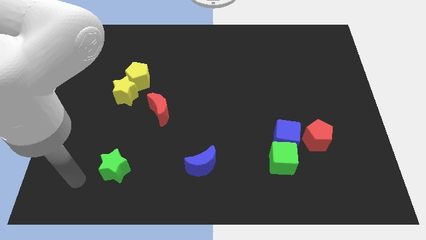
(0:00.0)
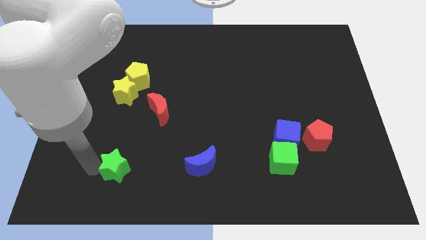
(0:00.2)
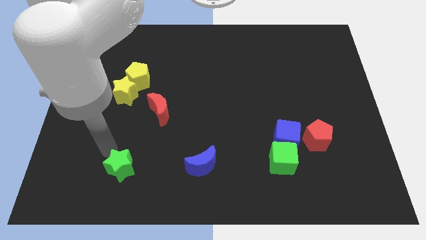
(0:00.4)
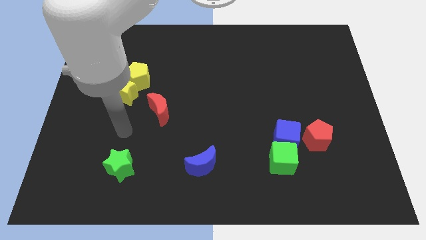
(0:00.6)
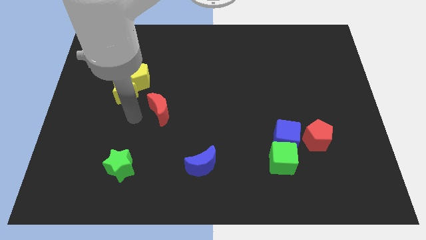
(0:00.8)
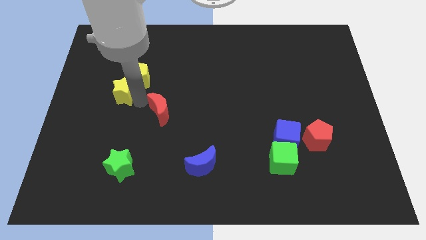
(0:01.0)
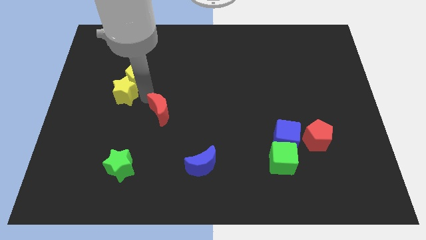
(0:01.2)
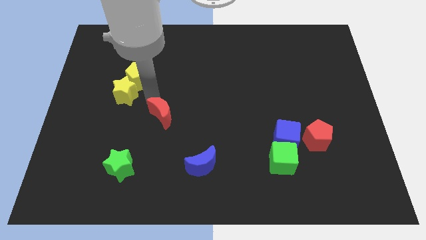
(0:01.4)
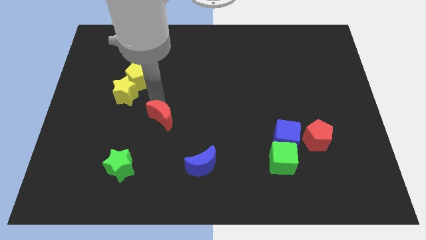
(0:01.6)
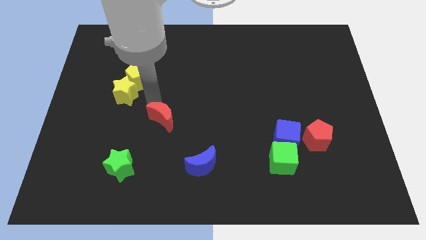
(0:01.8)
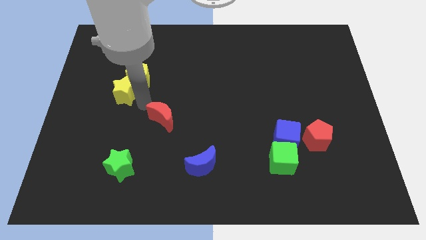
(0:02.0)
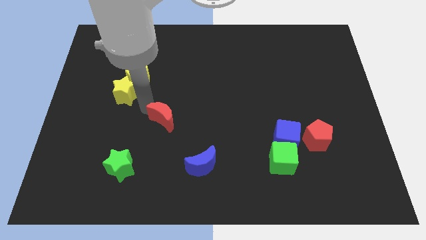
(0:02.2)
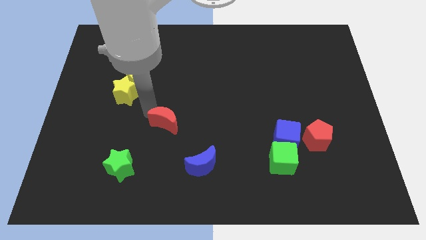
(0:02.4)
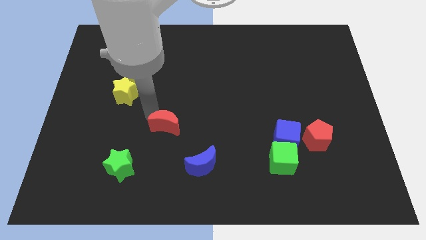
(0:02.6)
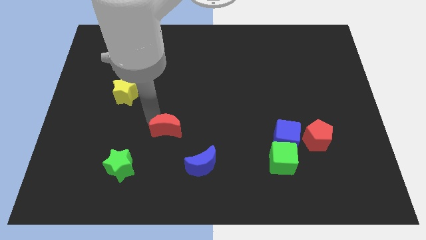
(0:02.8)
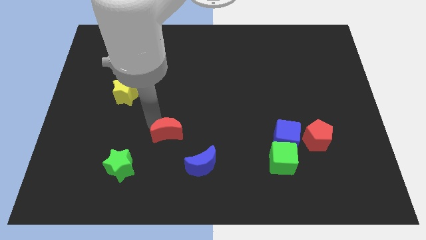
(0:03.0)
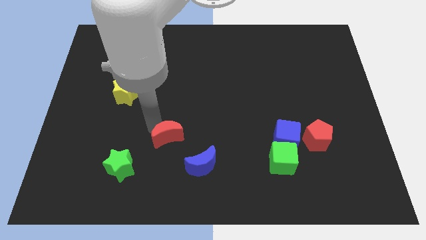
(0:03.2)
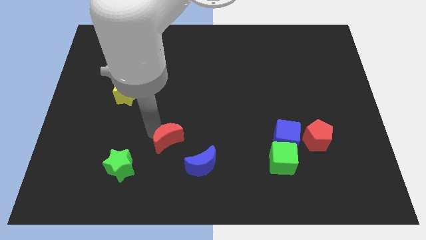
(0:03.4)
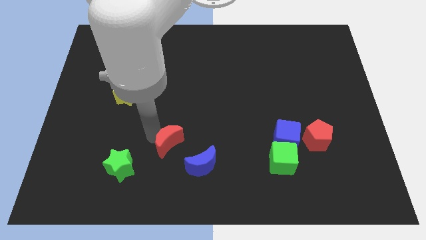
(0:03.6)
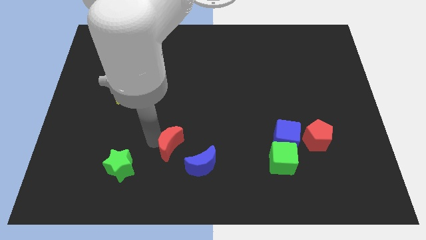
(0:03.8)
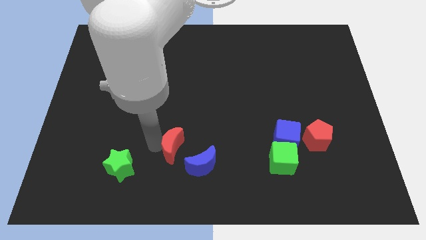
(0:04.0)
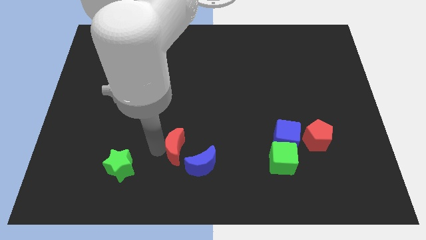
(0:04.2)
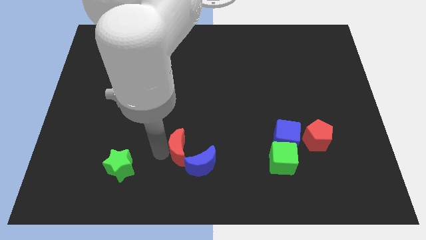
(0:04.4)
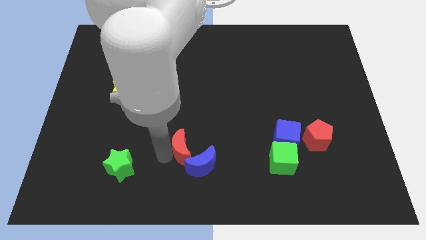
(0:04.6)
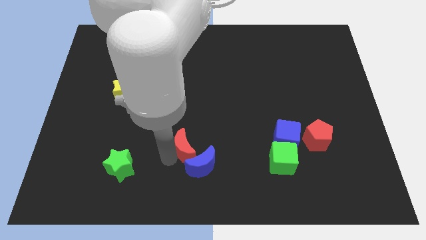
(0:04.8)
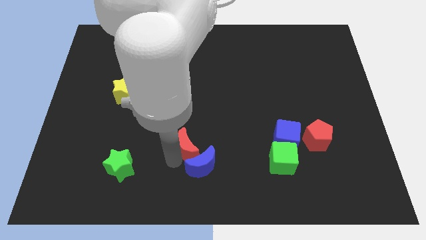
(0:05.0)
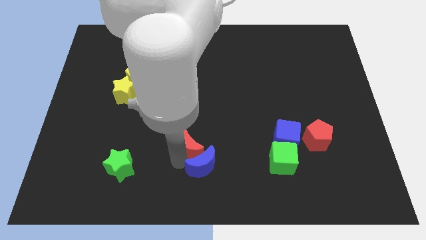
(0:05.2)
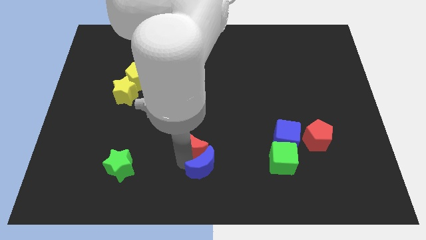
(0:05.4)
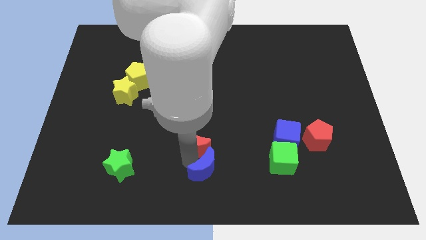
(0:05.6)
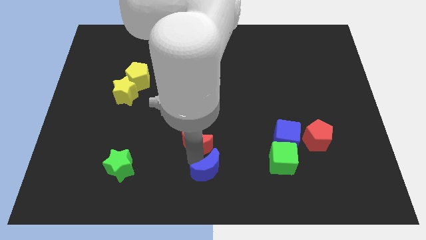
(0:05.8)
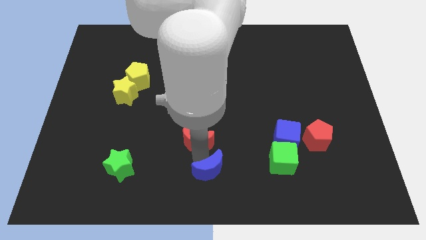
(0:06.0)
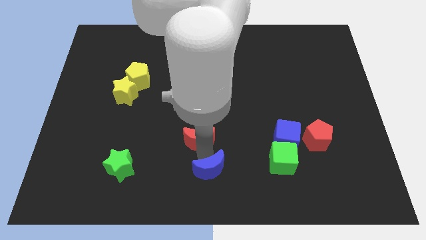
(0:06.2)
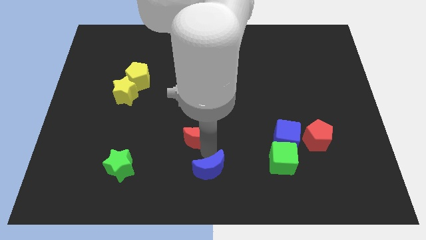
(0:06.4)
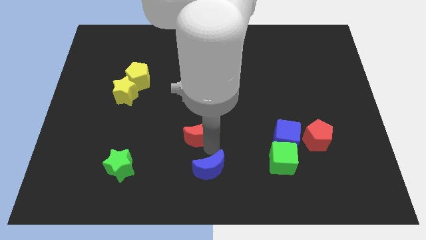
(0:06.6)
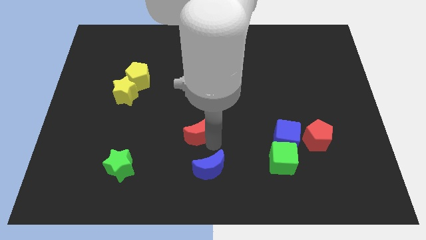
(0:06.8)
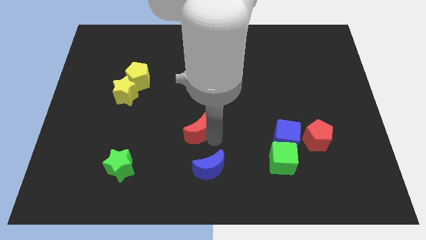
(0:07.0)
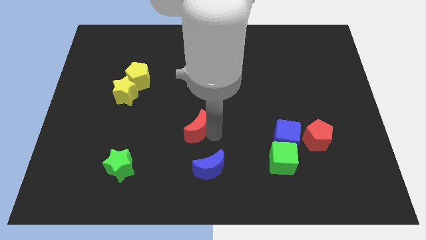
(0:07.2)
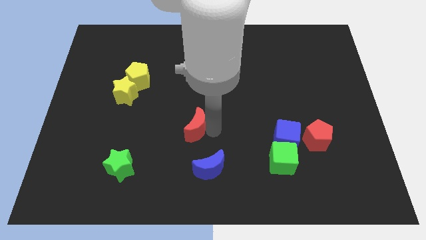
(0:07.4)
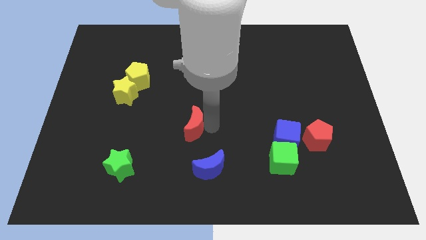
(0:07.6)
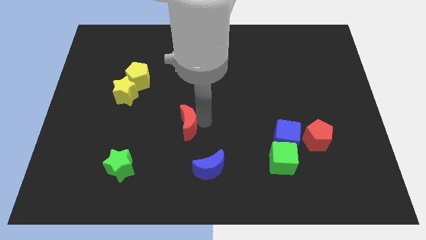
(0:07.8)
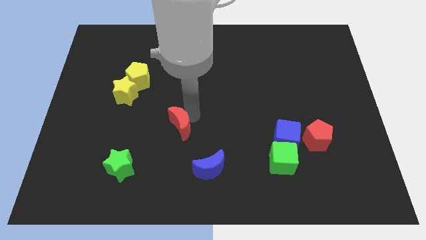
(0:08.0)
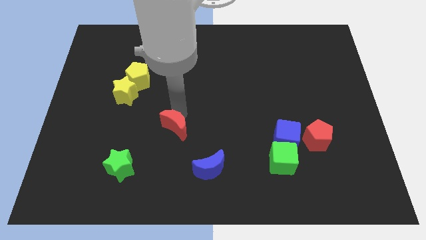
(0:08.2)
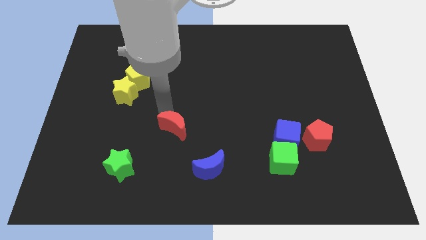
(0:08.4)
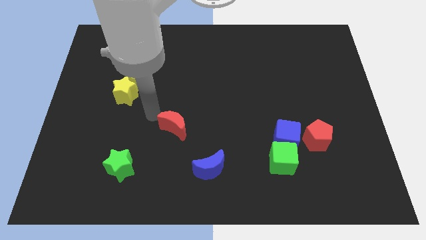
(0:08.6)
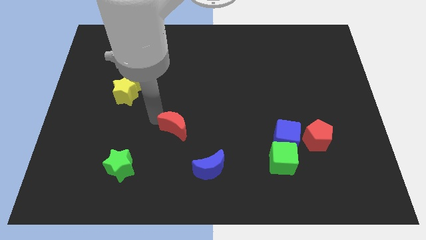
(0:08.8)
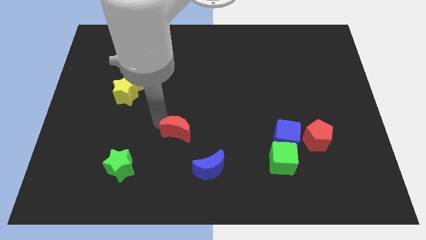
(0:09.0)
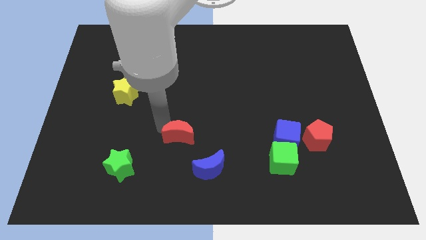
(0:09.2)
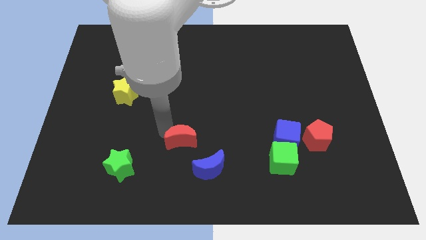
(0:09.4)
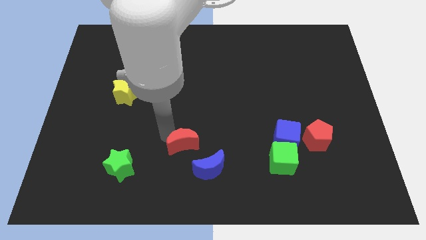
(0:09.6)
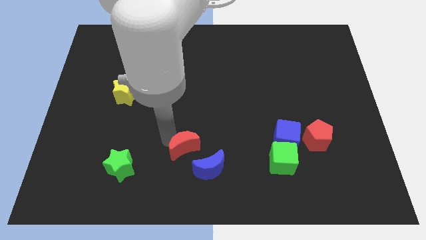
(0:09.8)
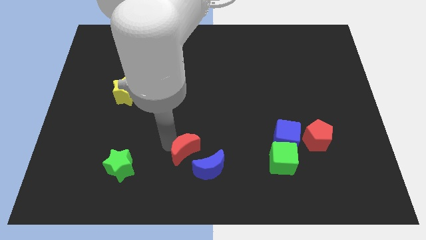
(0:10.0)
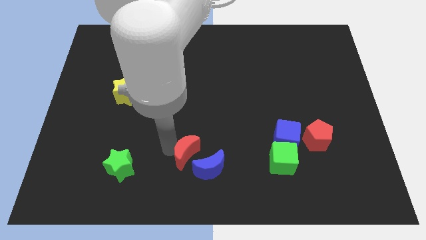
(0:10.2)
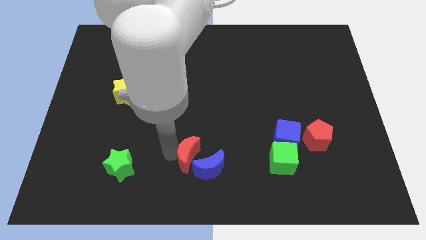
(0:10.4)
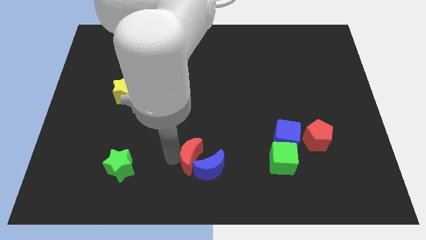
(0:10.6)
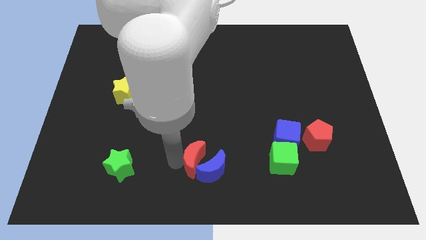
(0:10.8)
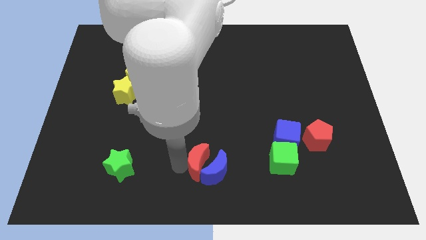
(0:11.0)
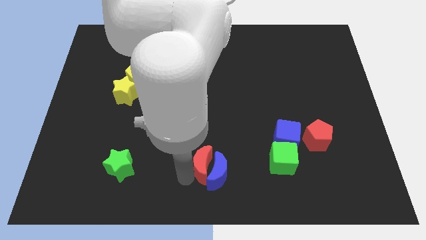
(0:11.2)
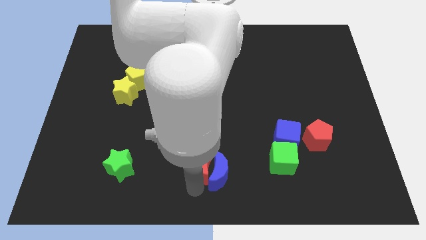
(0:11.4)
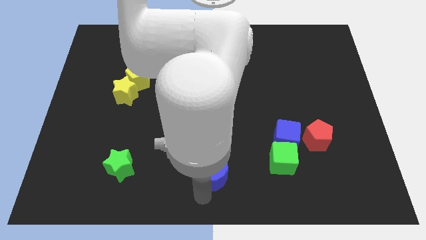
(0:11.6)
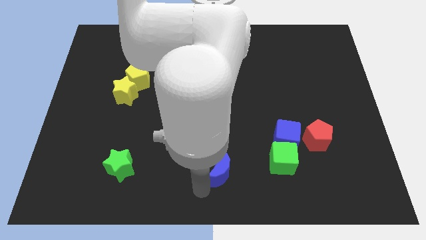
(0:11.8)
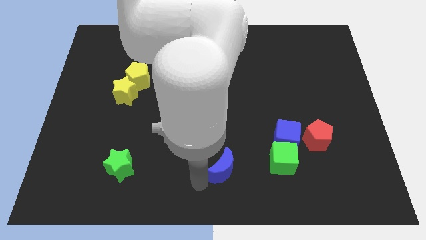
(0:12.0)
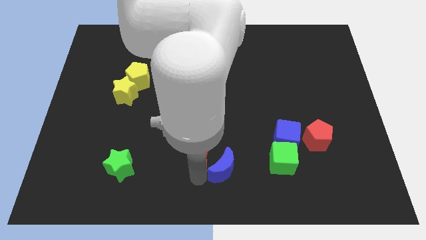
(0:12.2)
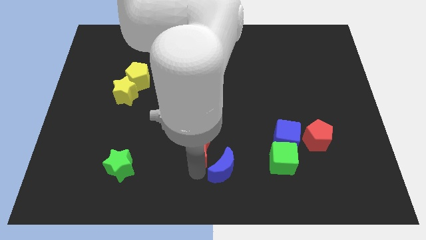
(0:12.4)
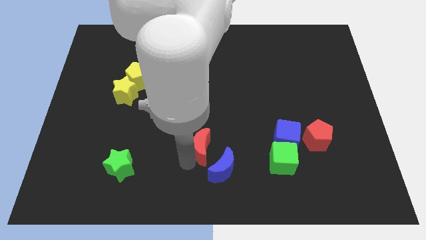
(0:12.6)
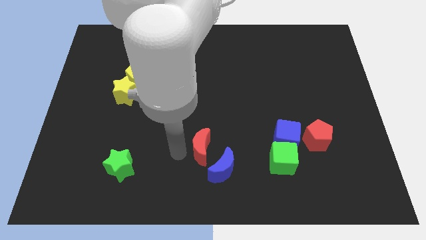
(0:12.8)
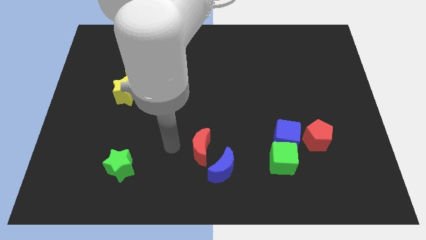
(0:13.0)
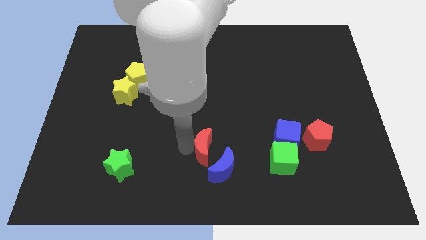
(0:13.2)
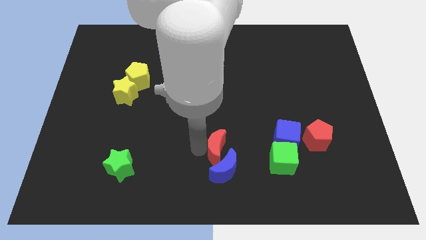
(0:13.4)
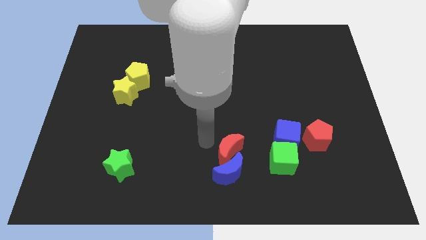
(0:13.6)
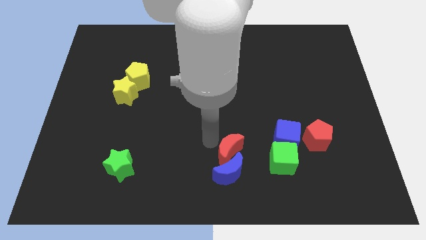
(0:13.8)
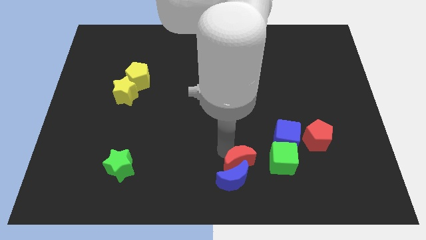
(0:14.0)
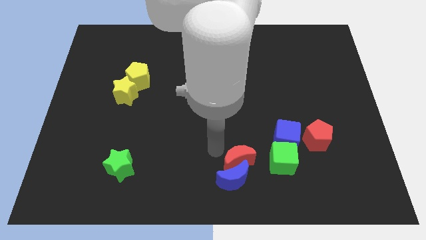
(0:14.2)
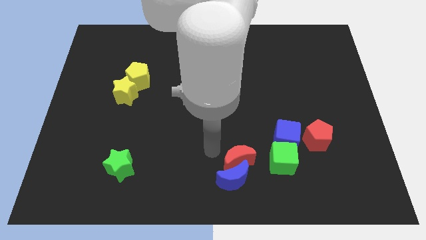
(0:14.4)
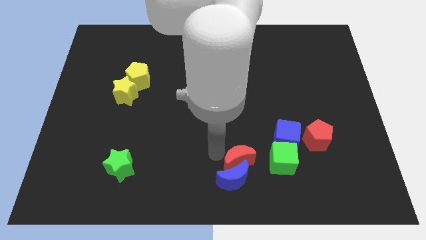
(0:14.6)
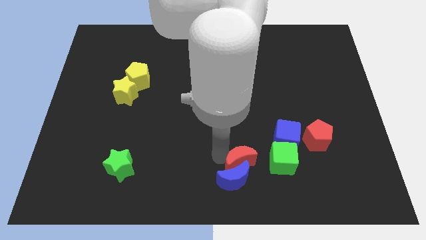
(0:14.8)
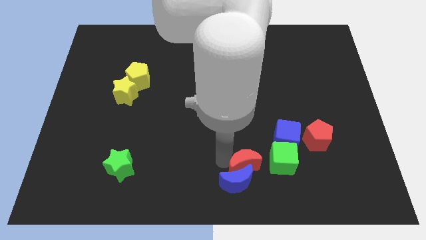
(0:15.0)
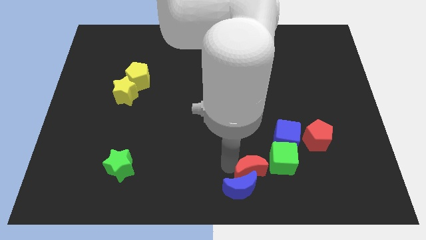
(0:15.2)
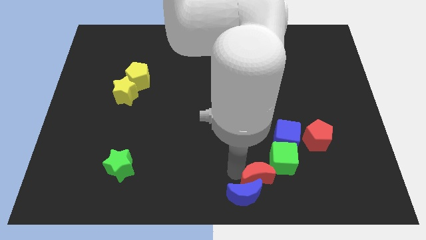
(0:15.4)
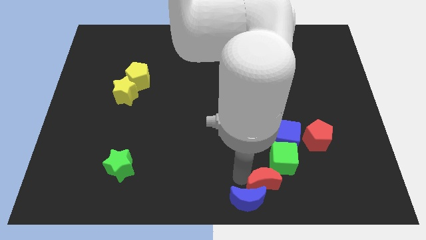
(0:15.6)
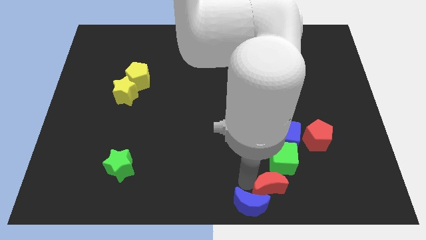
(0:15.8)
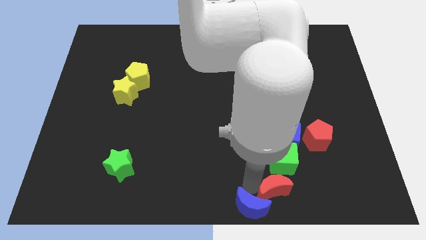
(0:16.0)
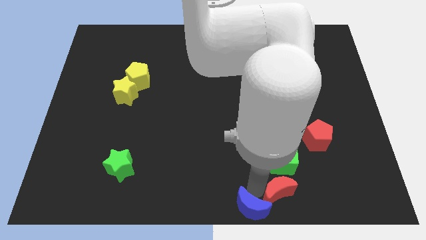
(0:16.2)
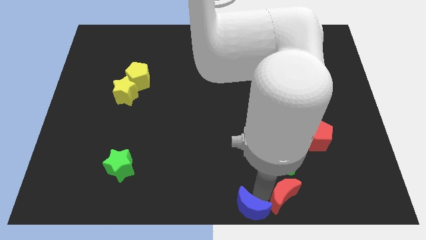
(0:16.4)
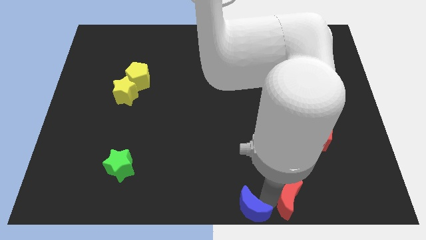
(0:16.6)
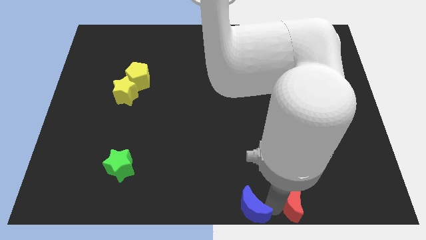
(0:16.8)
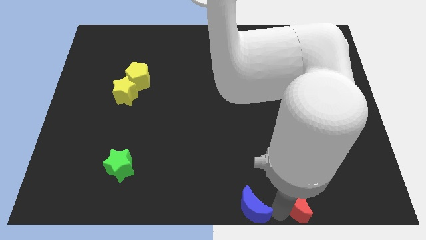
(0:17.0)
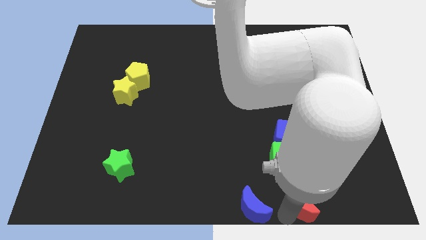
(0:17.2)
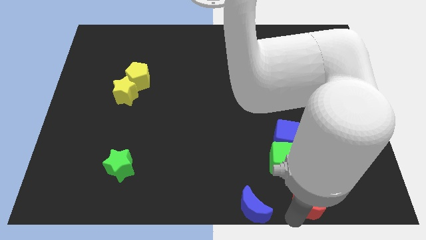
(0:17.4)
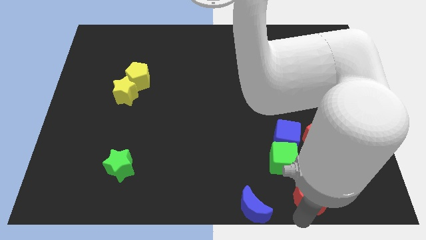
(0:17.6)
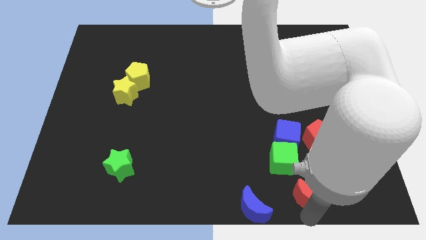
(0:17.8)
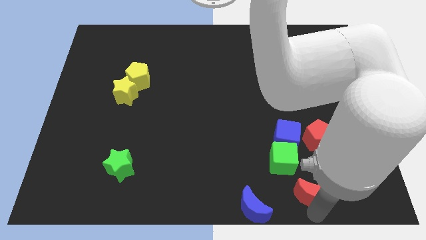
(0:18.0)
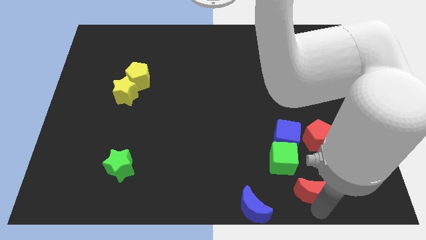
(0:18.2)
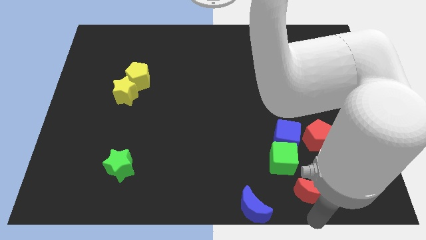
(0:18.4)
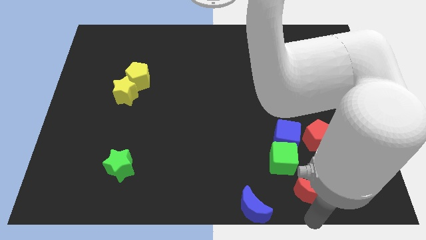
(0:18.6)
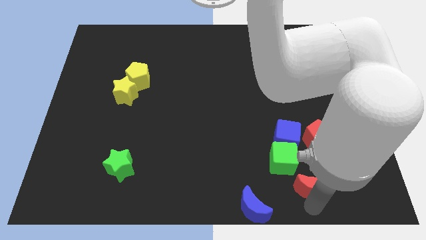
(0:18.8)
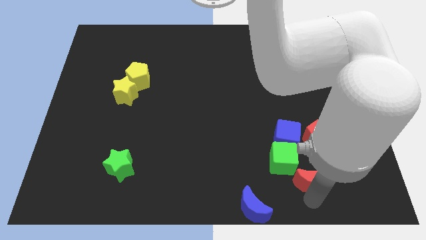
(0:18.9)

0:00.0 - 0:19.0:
slide the red moon to the right of the green cube
